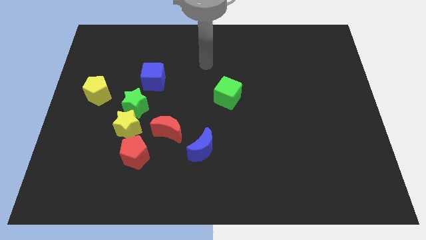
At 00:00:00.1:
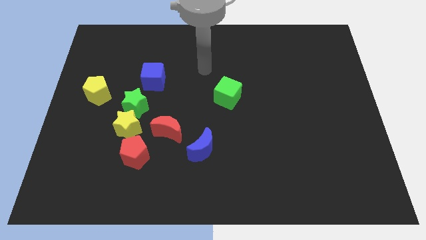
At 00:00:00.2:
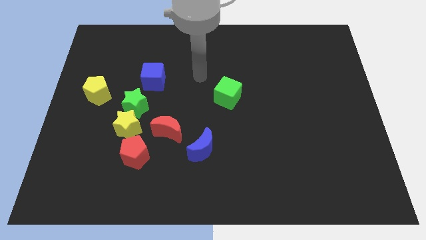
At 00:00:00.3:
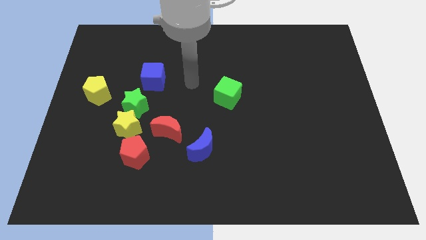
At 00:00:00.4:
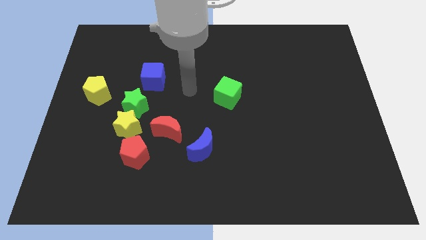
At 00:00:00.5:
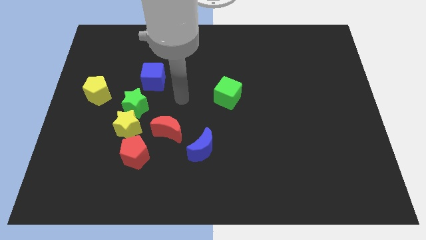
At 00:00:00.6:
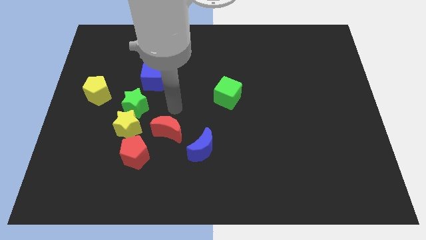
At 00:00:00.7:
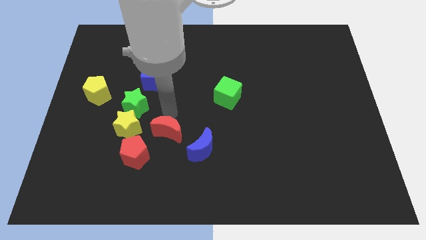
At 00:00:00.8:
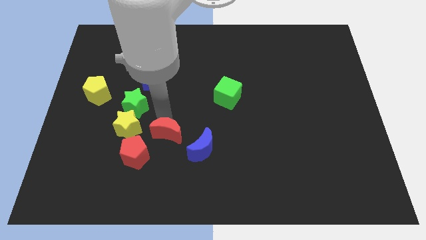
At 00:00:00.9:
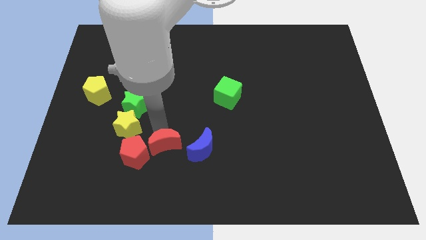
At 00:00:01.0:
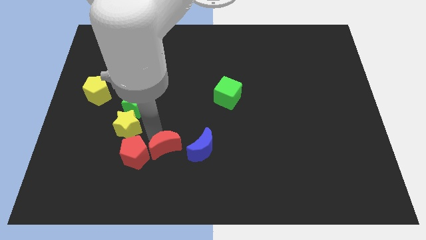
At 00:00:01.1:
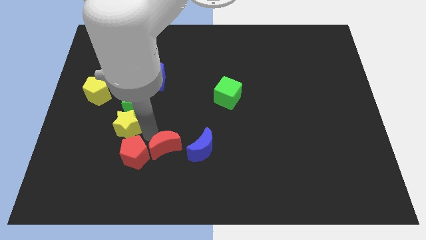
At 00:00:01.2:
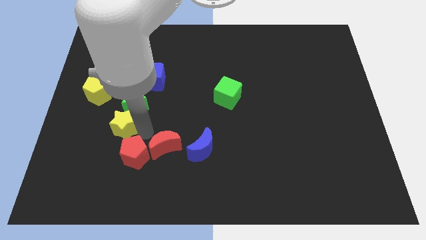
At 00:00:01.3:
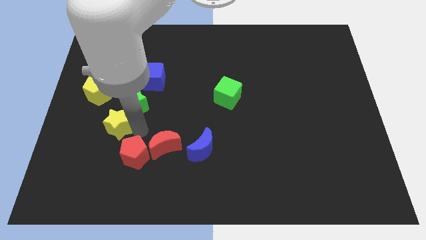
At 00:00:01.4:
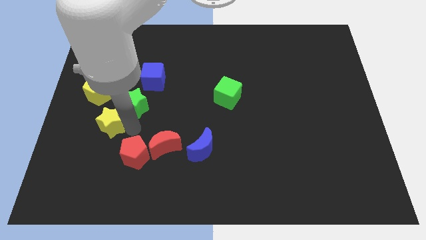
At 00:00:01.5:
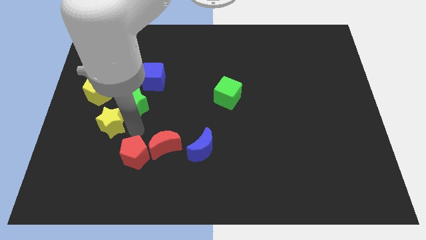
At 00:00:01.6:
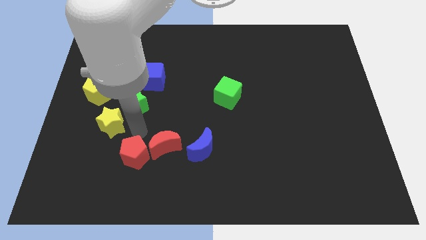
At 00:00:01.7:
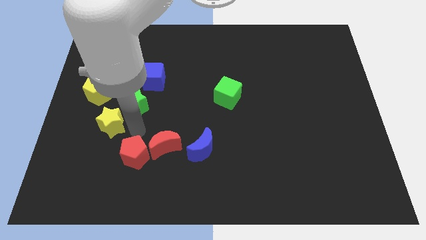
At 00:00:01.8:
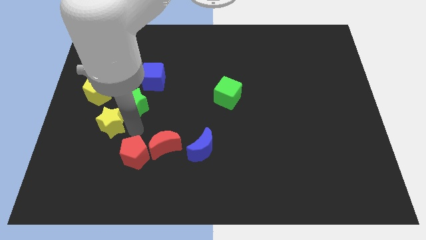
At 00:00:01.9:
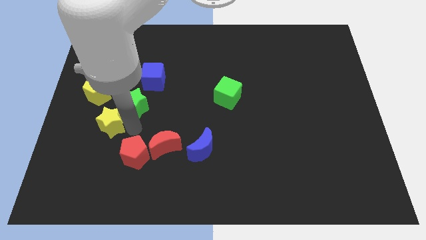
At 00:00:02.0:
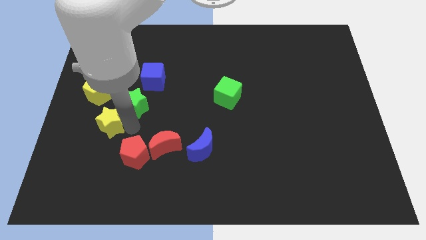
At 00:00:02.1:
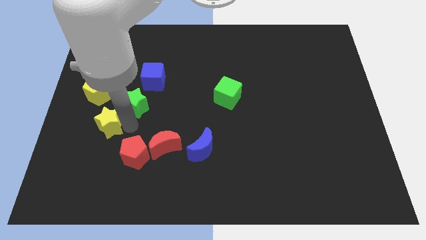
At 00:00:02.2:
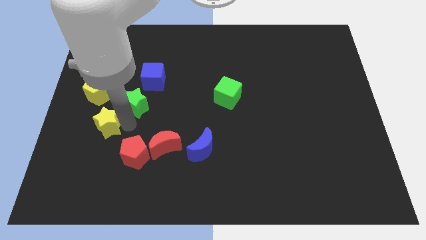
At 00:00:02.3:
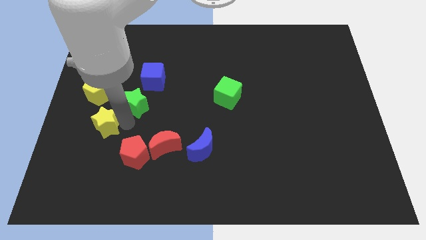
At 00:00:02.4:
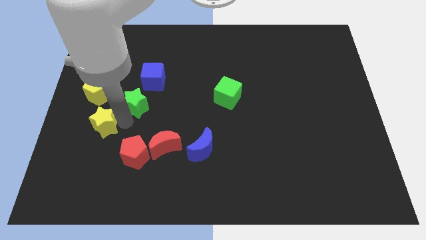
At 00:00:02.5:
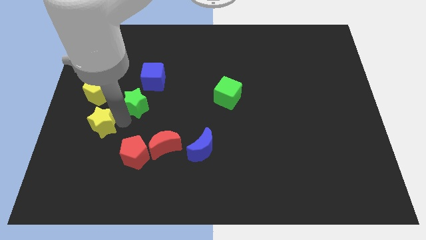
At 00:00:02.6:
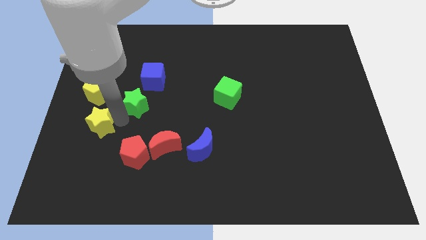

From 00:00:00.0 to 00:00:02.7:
separate the yellow star from the green star, red pentagon, and red moon

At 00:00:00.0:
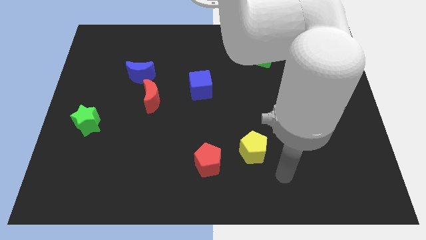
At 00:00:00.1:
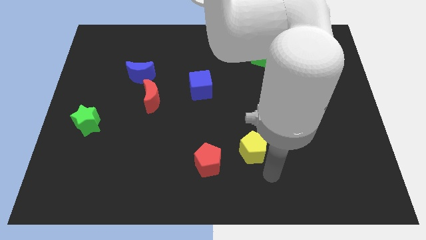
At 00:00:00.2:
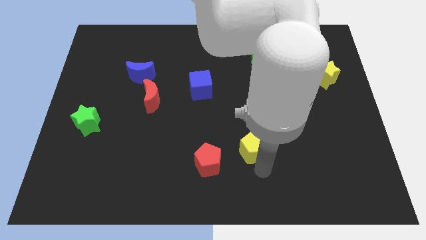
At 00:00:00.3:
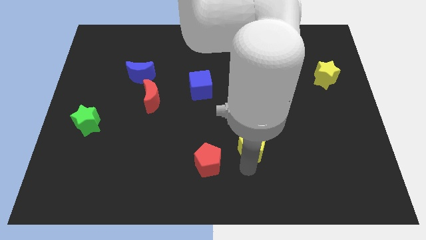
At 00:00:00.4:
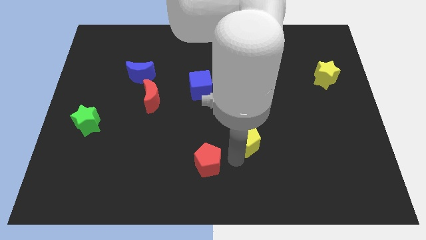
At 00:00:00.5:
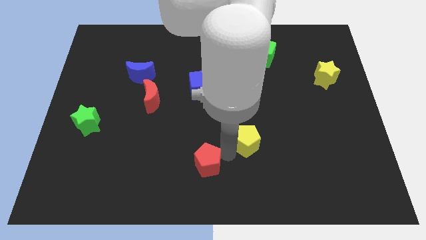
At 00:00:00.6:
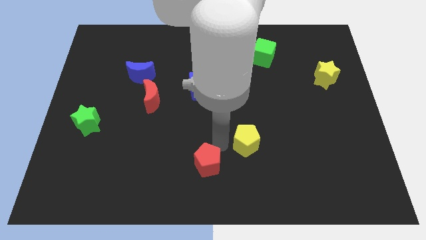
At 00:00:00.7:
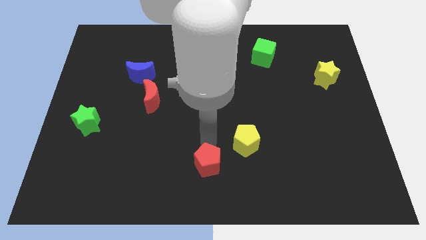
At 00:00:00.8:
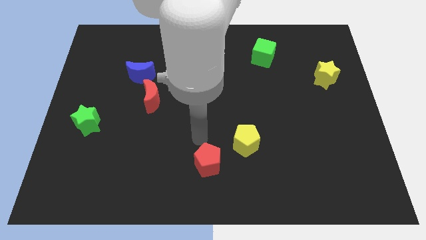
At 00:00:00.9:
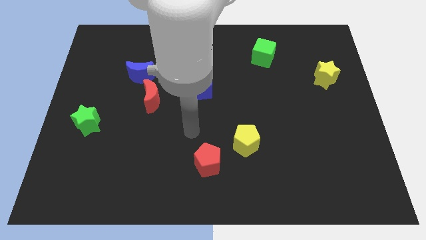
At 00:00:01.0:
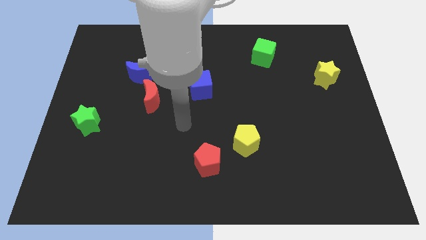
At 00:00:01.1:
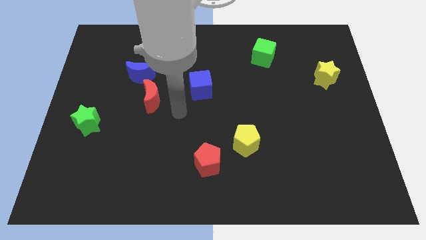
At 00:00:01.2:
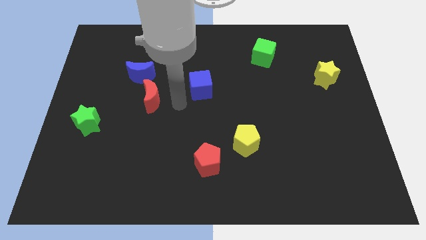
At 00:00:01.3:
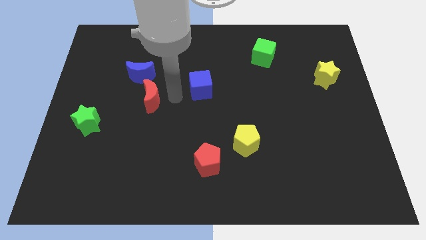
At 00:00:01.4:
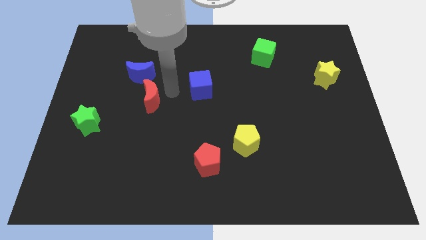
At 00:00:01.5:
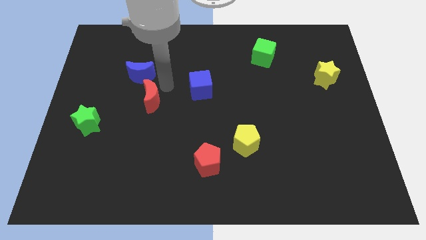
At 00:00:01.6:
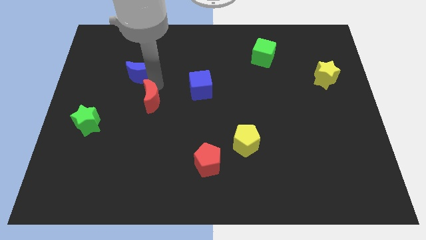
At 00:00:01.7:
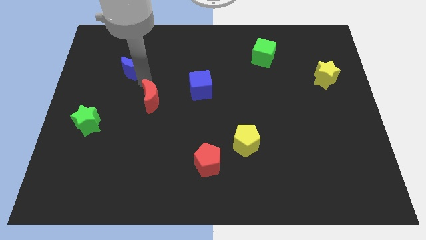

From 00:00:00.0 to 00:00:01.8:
pull the red moon apart from the blue moon

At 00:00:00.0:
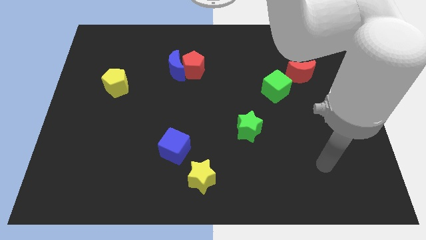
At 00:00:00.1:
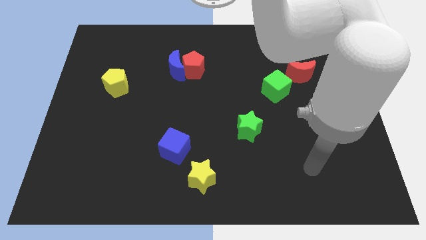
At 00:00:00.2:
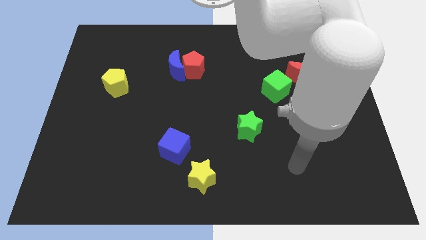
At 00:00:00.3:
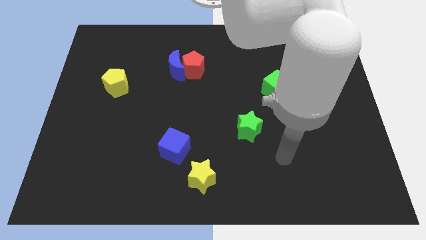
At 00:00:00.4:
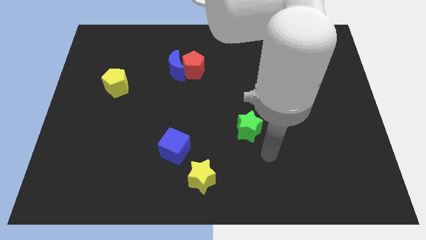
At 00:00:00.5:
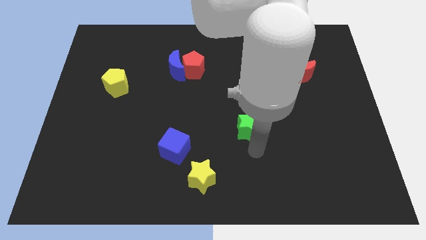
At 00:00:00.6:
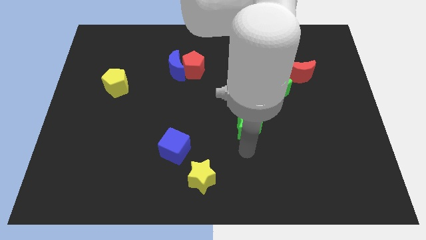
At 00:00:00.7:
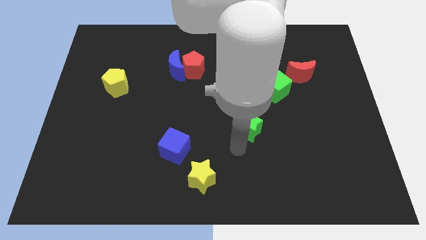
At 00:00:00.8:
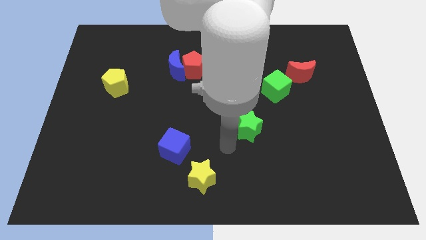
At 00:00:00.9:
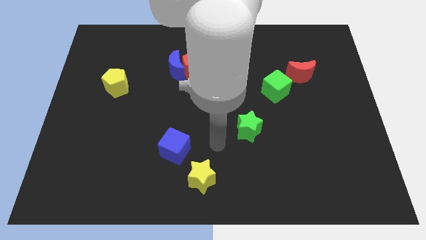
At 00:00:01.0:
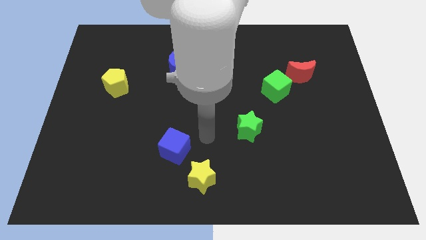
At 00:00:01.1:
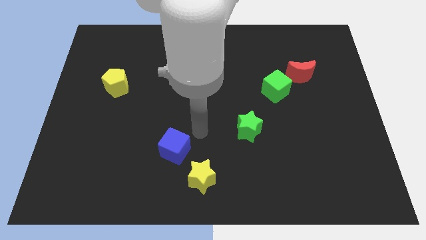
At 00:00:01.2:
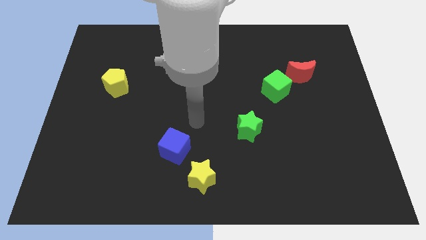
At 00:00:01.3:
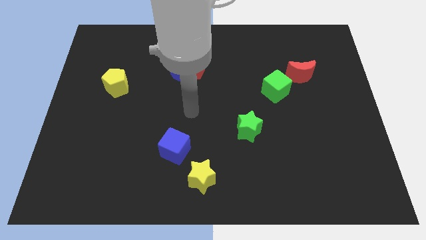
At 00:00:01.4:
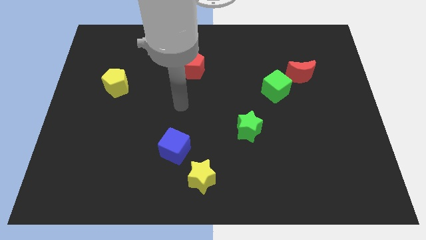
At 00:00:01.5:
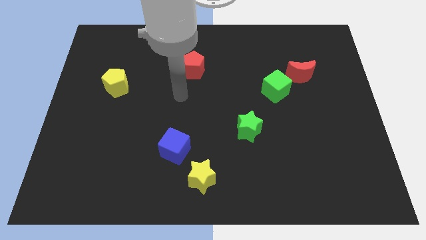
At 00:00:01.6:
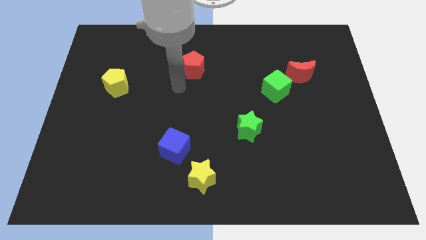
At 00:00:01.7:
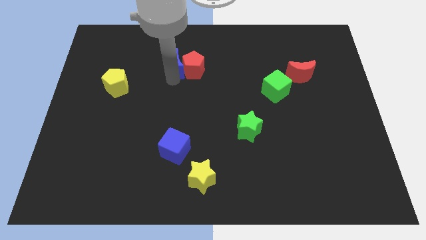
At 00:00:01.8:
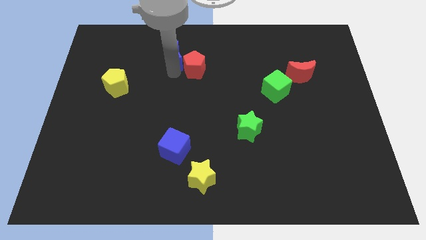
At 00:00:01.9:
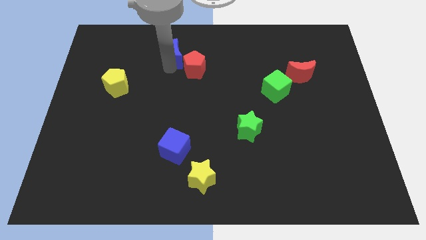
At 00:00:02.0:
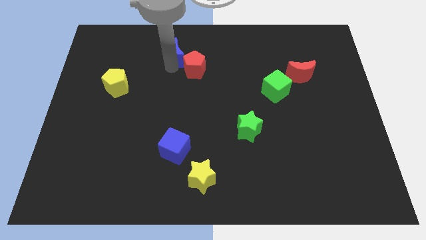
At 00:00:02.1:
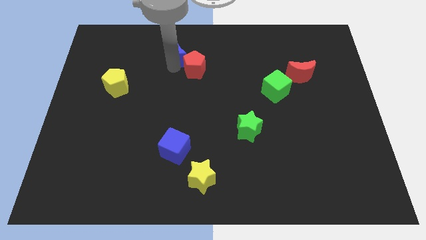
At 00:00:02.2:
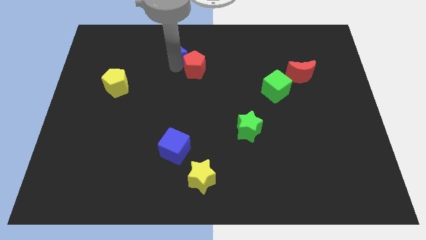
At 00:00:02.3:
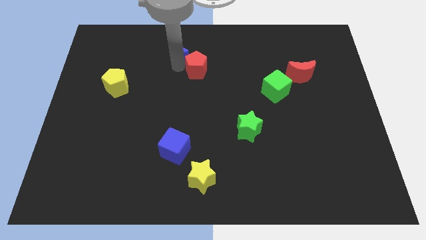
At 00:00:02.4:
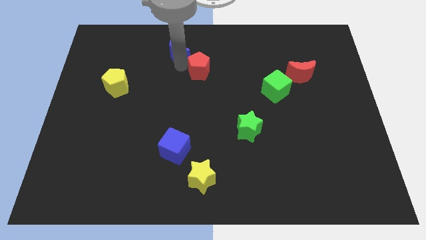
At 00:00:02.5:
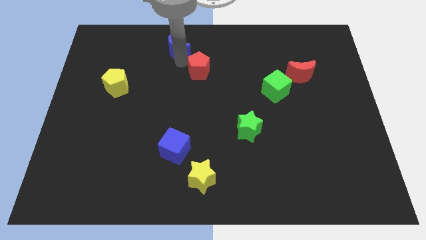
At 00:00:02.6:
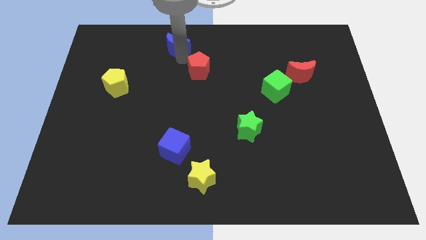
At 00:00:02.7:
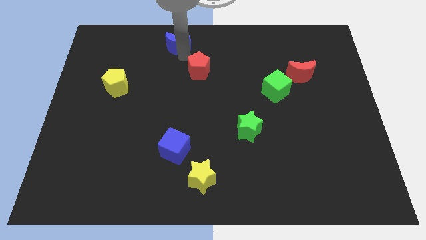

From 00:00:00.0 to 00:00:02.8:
move the red pentagon away from the blue moon

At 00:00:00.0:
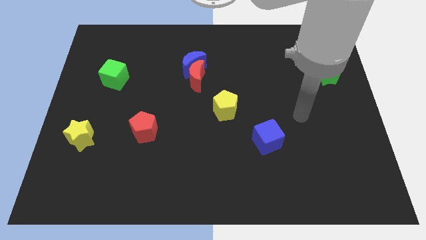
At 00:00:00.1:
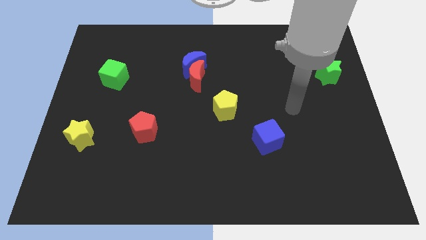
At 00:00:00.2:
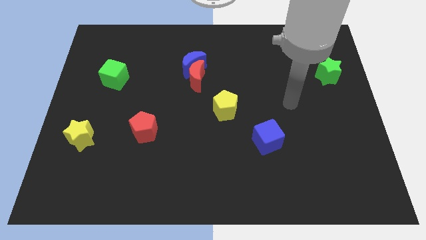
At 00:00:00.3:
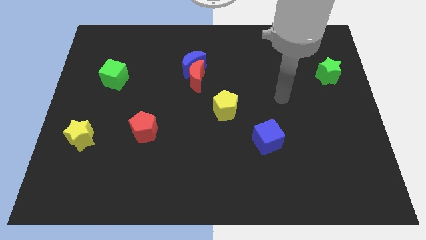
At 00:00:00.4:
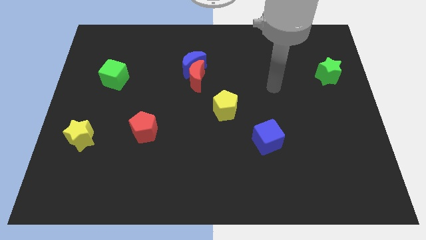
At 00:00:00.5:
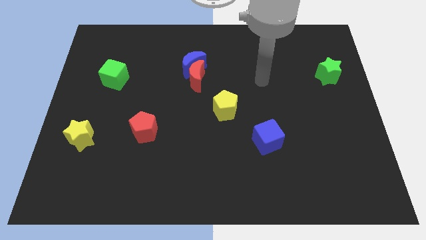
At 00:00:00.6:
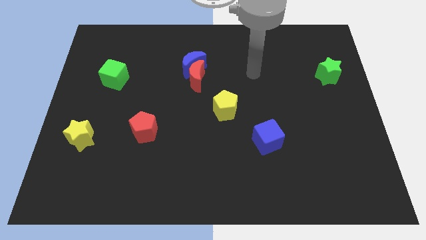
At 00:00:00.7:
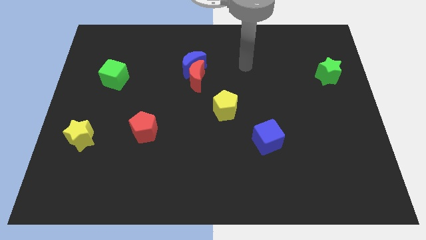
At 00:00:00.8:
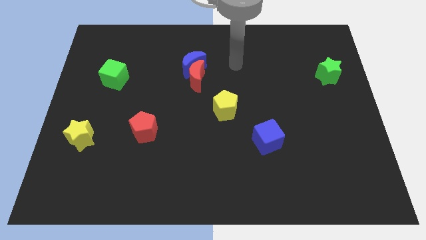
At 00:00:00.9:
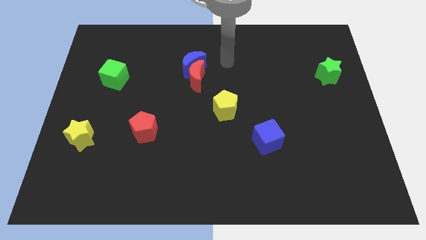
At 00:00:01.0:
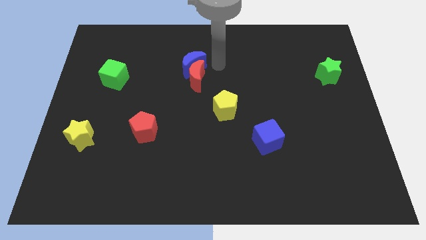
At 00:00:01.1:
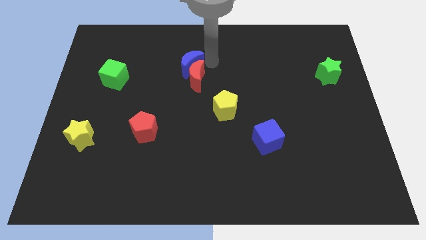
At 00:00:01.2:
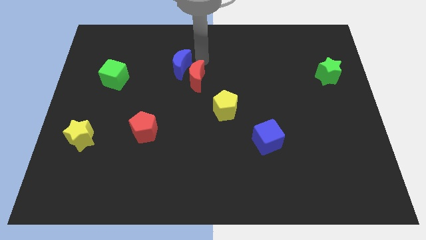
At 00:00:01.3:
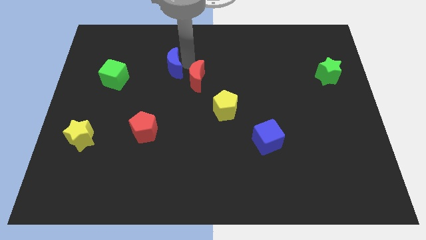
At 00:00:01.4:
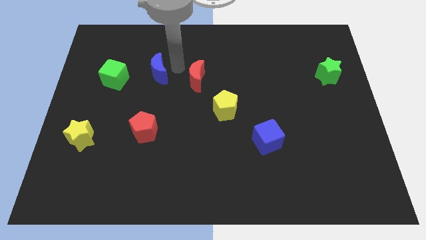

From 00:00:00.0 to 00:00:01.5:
separate the red moon from the blue moon

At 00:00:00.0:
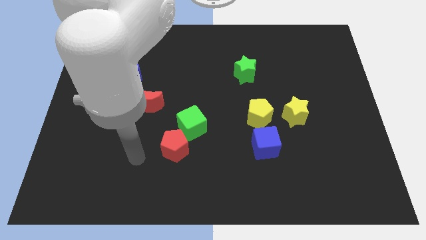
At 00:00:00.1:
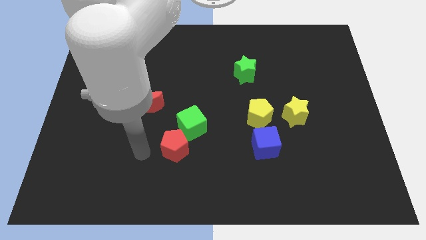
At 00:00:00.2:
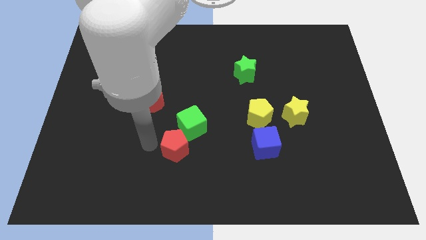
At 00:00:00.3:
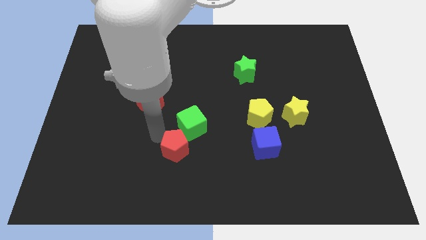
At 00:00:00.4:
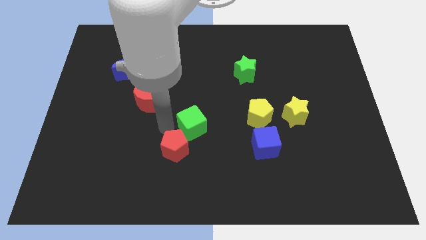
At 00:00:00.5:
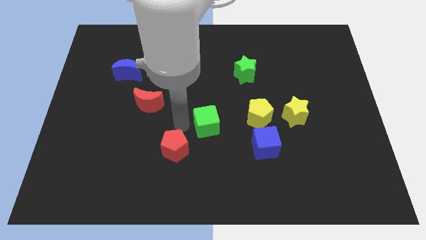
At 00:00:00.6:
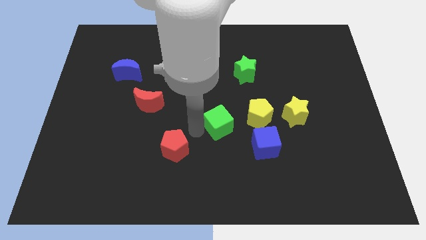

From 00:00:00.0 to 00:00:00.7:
separate the red pentagon from the green cube
